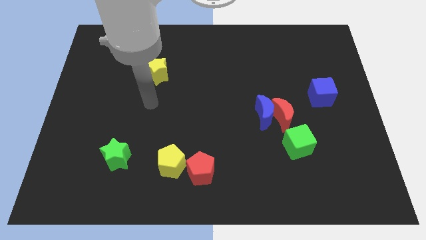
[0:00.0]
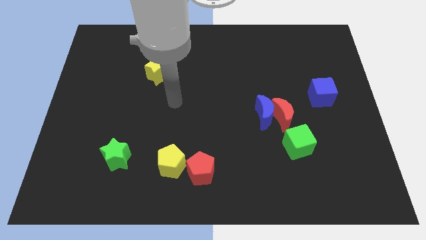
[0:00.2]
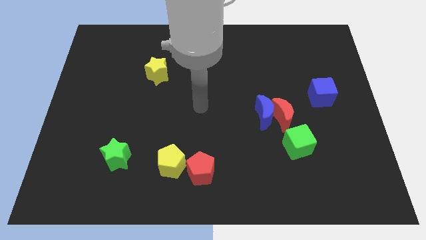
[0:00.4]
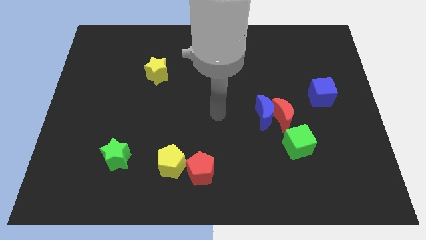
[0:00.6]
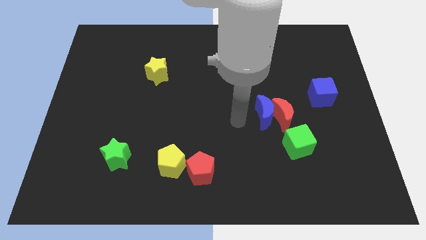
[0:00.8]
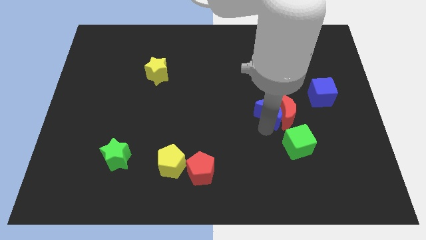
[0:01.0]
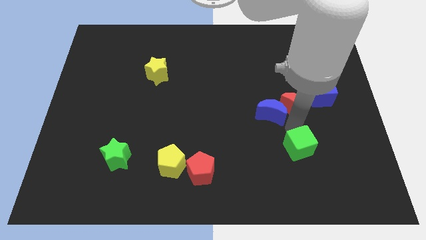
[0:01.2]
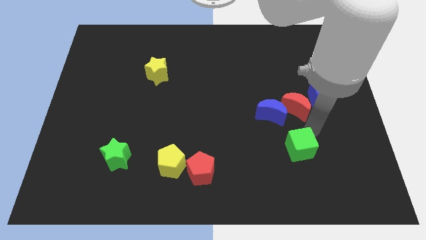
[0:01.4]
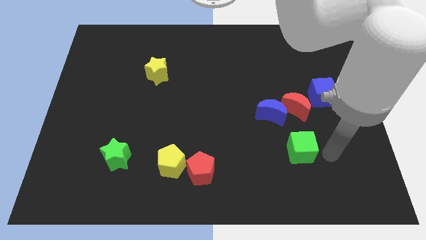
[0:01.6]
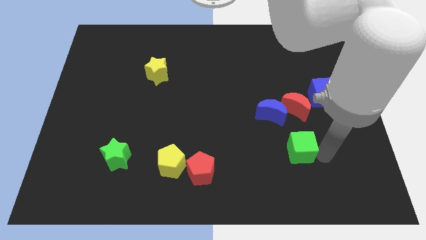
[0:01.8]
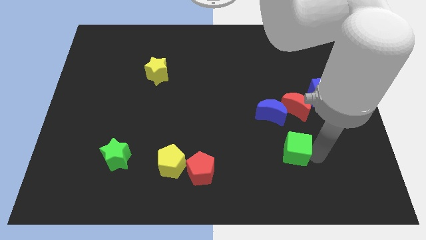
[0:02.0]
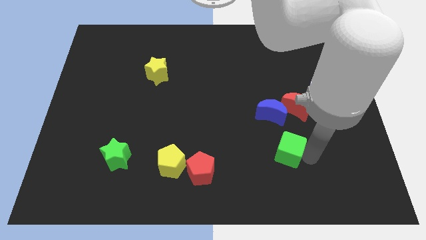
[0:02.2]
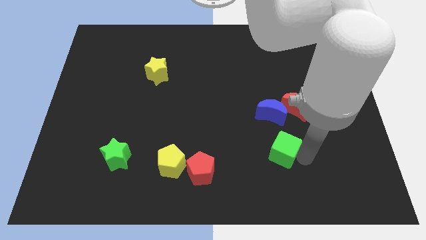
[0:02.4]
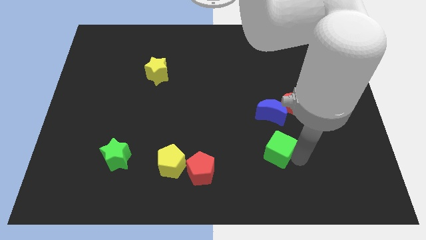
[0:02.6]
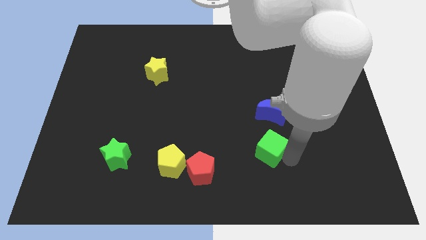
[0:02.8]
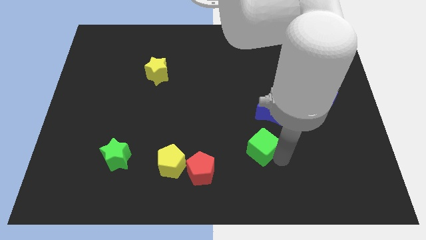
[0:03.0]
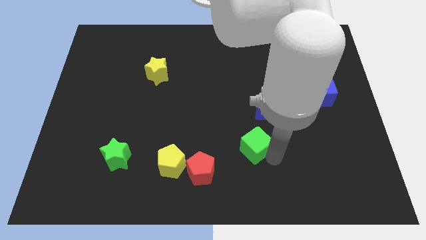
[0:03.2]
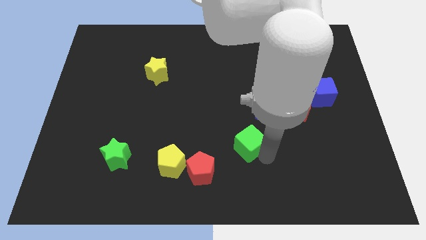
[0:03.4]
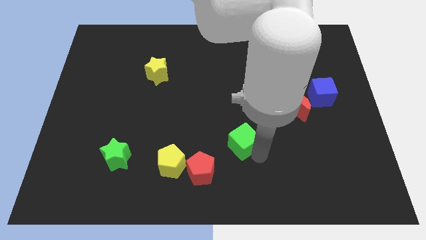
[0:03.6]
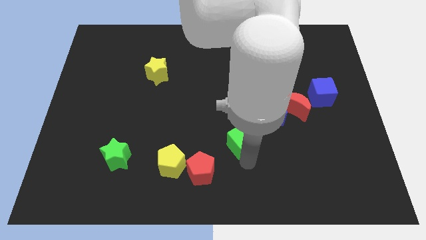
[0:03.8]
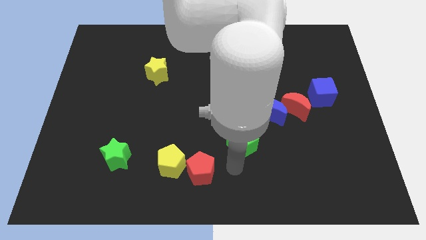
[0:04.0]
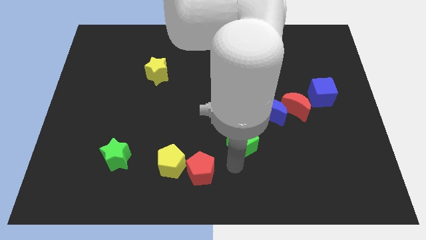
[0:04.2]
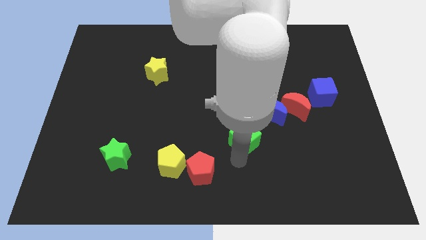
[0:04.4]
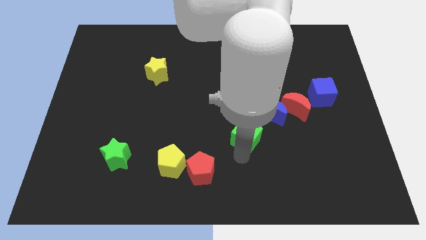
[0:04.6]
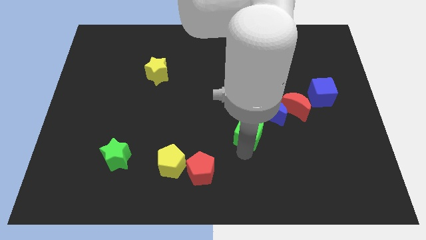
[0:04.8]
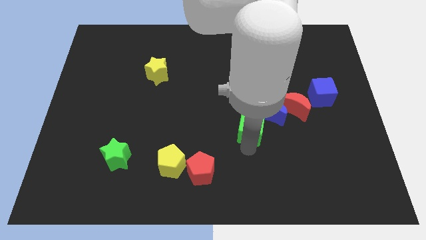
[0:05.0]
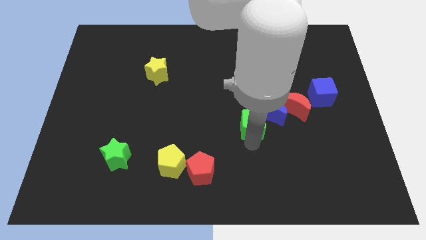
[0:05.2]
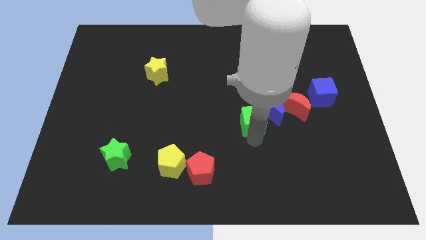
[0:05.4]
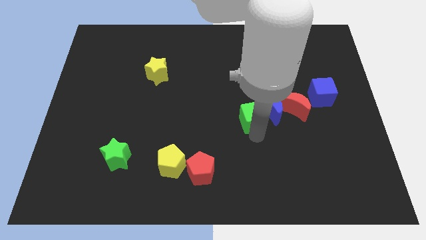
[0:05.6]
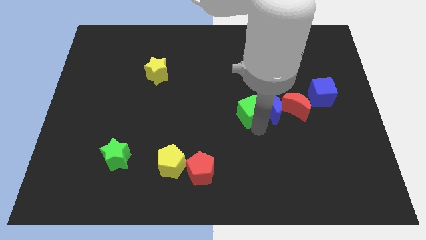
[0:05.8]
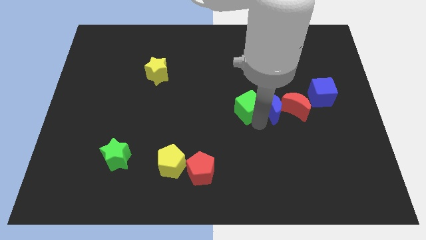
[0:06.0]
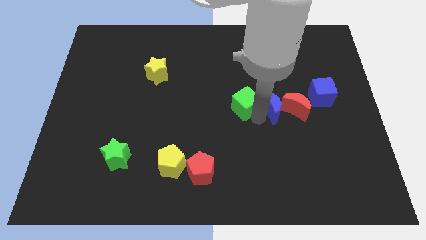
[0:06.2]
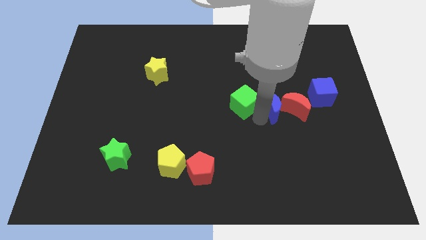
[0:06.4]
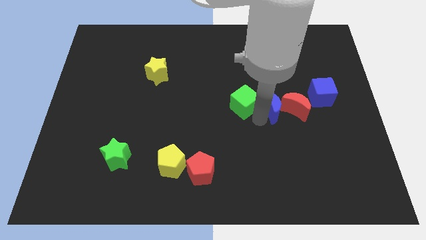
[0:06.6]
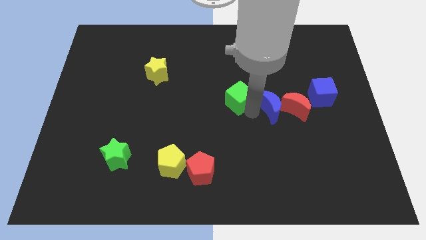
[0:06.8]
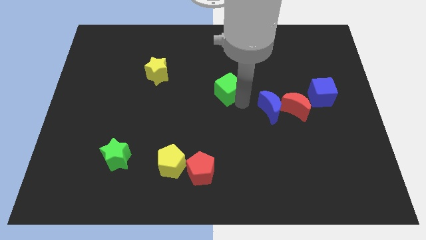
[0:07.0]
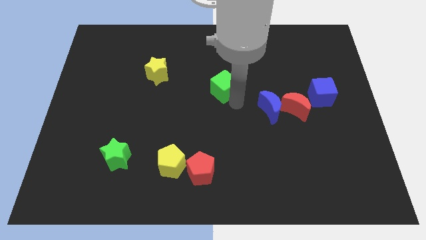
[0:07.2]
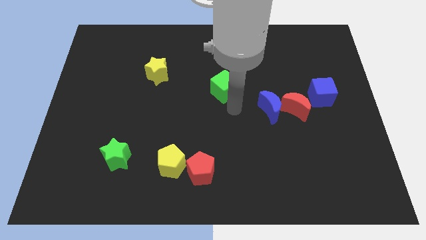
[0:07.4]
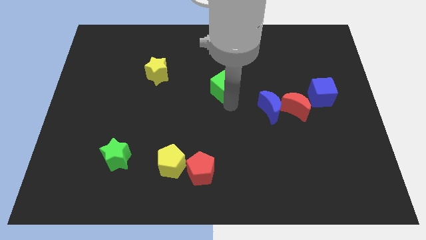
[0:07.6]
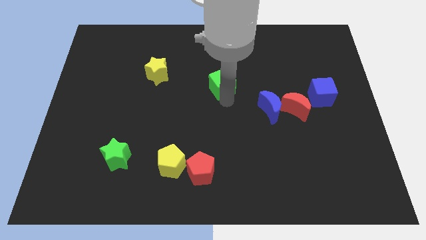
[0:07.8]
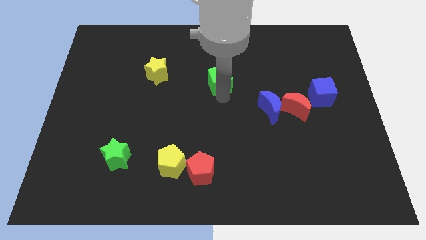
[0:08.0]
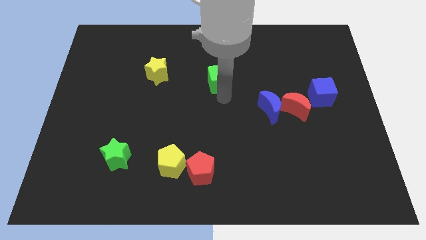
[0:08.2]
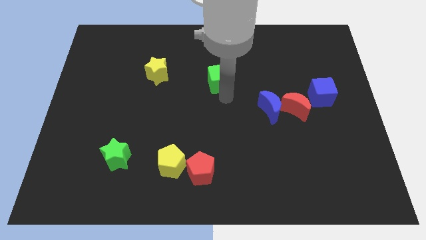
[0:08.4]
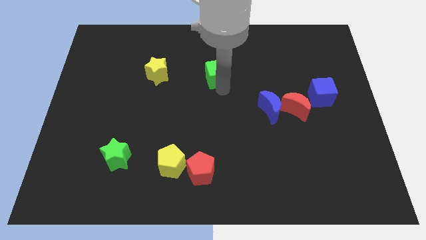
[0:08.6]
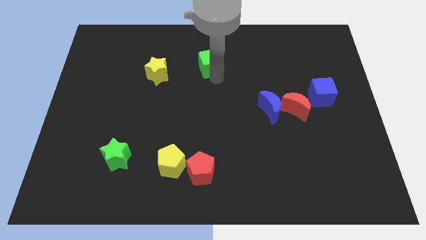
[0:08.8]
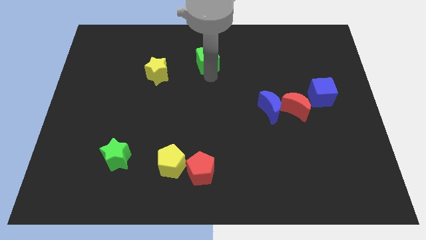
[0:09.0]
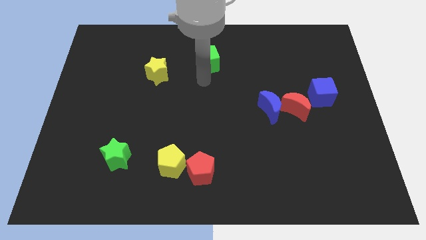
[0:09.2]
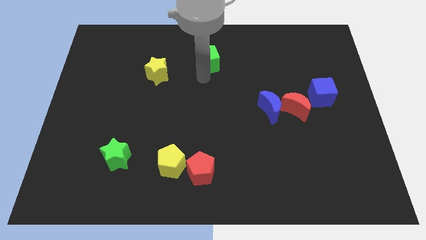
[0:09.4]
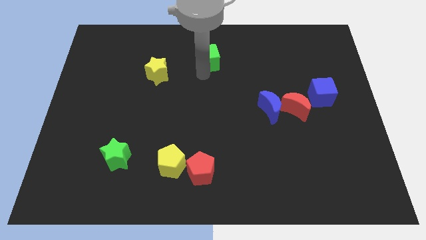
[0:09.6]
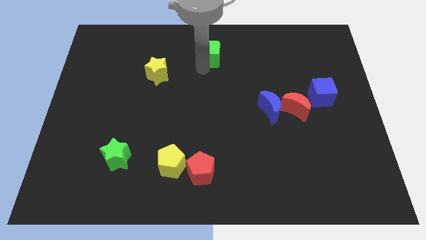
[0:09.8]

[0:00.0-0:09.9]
slide the green cube to the top

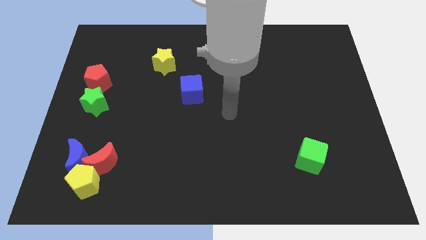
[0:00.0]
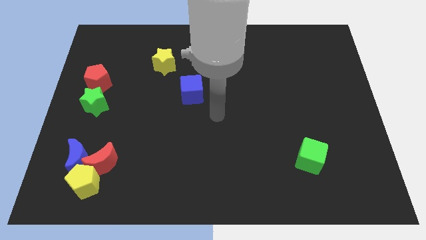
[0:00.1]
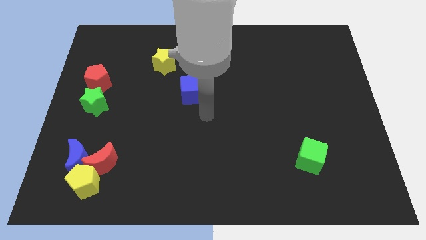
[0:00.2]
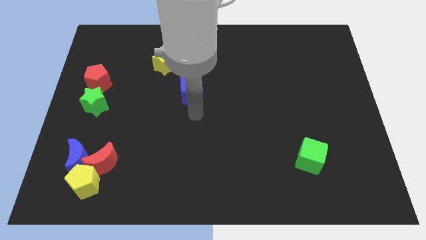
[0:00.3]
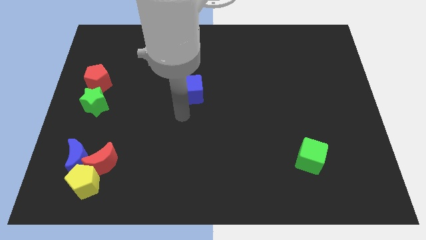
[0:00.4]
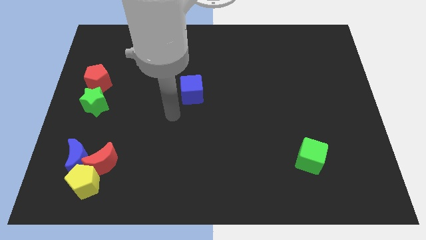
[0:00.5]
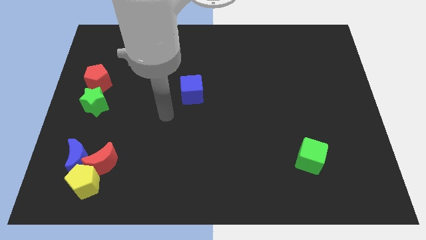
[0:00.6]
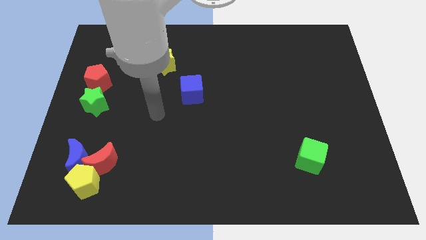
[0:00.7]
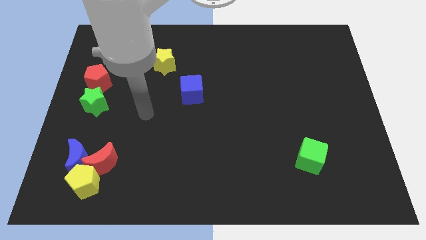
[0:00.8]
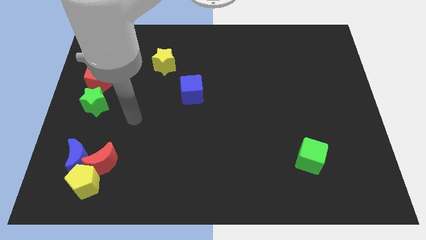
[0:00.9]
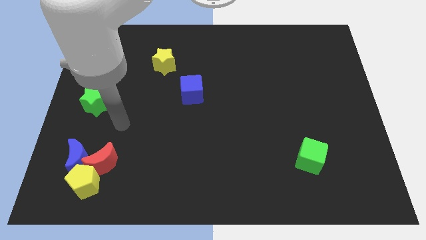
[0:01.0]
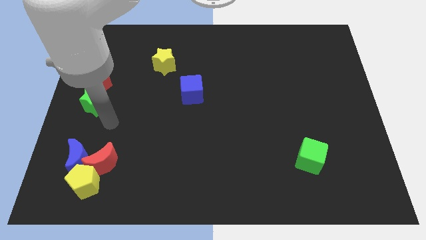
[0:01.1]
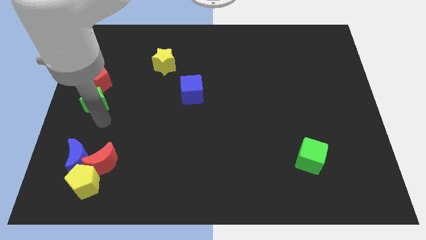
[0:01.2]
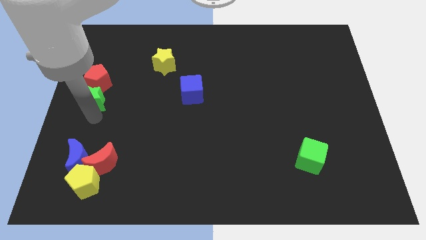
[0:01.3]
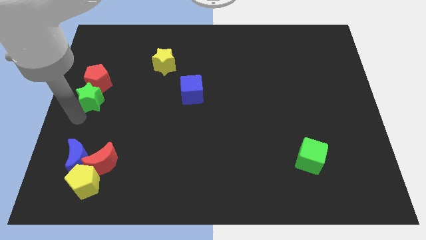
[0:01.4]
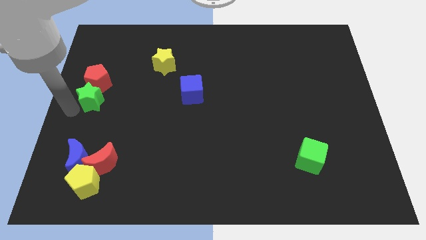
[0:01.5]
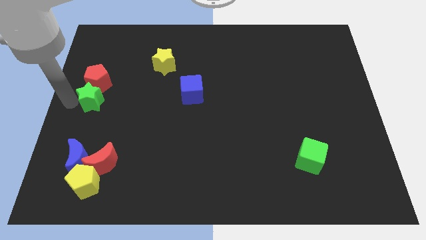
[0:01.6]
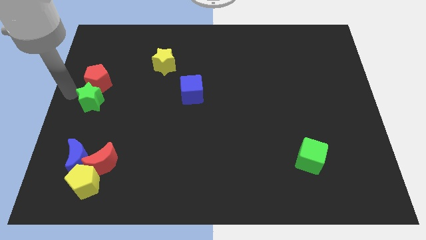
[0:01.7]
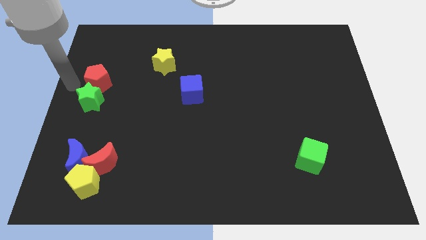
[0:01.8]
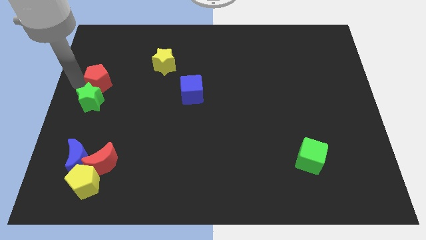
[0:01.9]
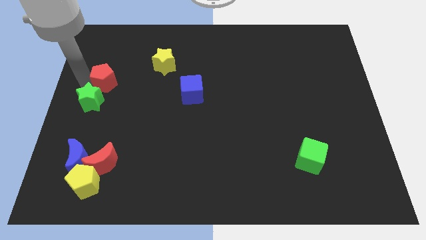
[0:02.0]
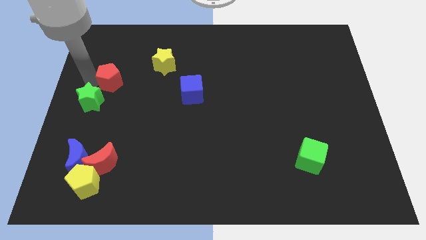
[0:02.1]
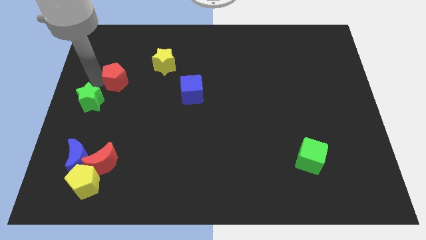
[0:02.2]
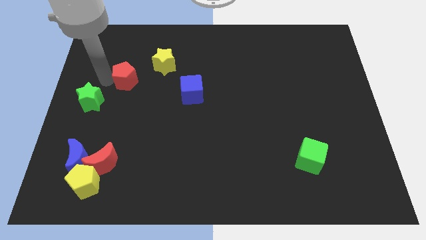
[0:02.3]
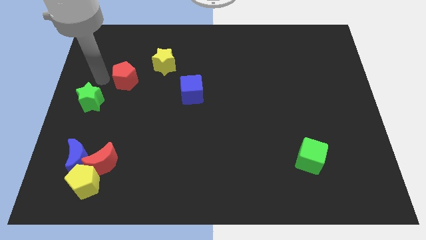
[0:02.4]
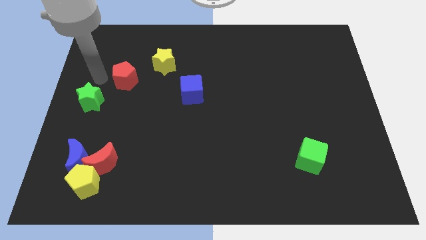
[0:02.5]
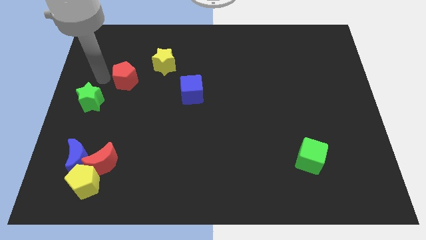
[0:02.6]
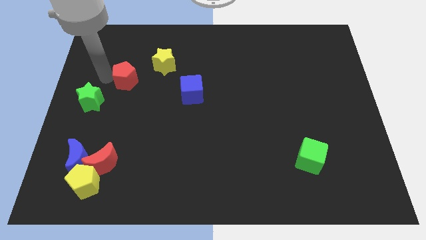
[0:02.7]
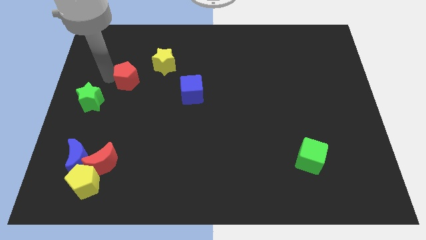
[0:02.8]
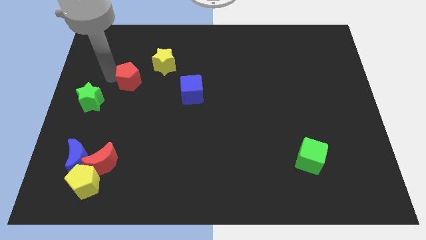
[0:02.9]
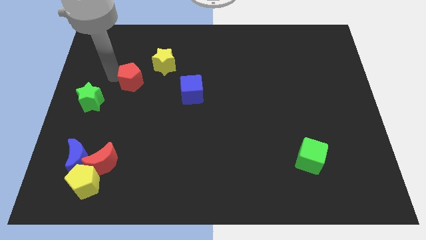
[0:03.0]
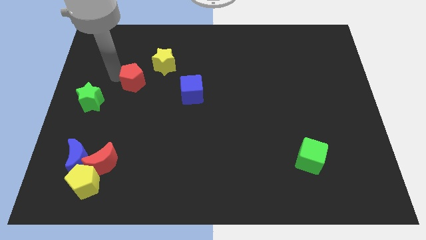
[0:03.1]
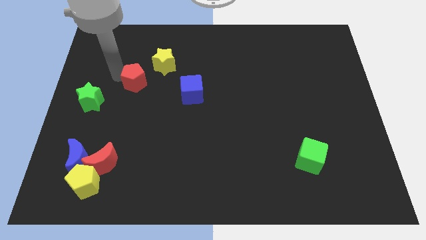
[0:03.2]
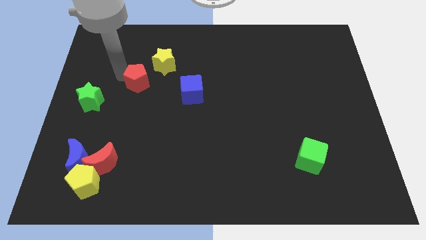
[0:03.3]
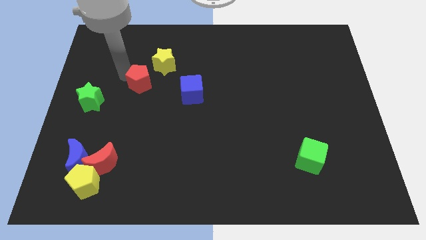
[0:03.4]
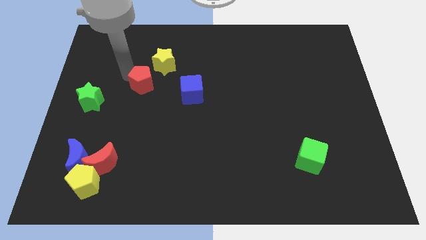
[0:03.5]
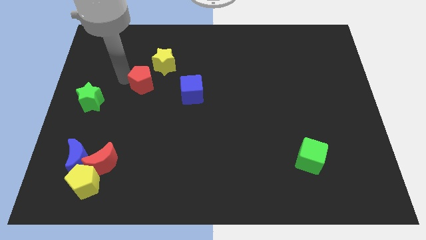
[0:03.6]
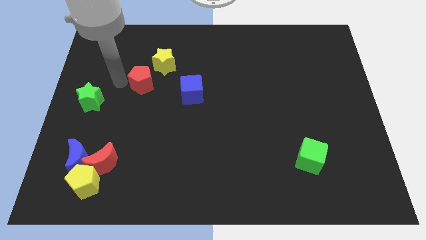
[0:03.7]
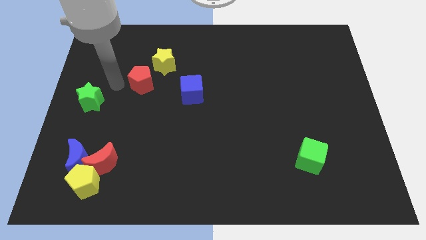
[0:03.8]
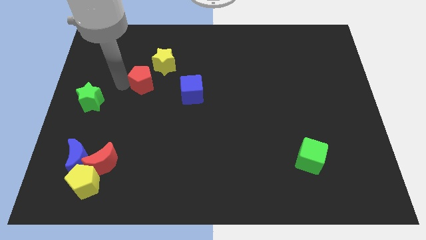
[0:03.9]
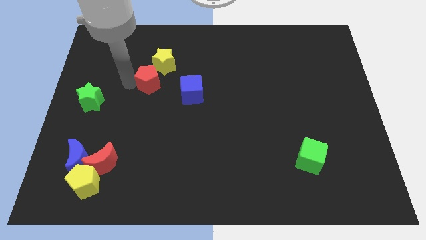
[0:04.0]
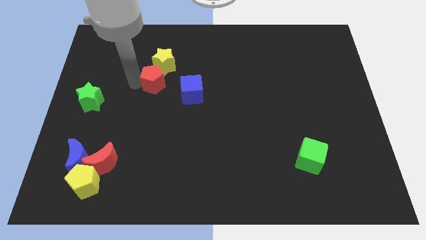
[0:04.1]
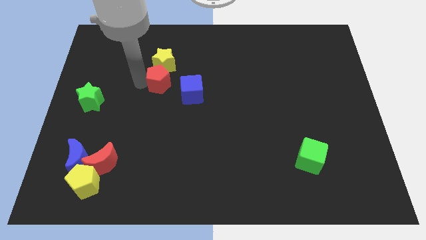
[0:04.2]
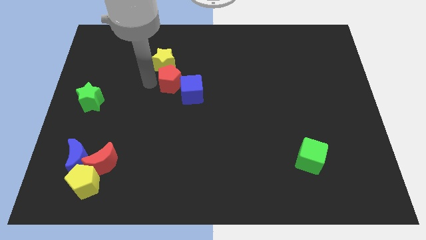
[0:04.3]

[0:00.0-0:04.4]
slide the red pentagon to the middle
